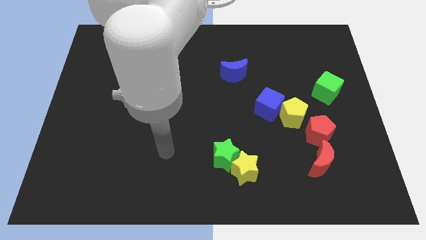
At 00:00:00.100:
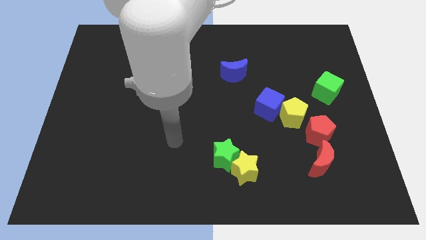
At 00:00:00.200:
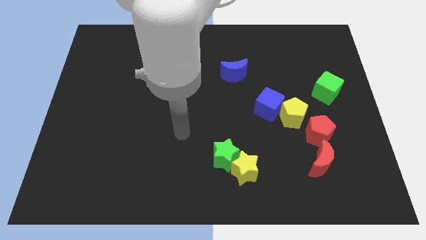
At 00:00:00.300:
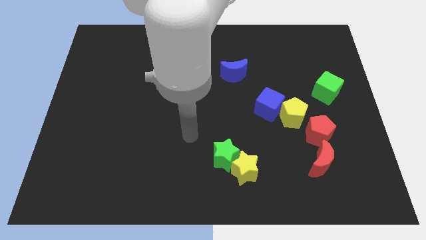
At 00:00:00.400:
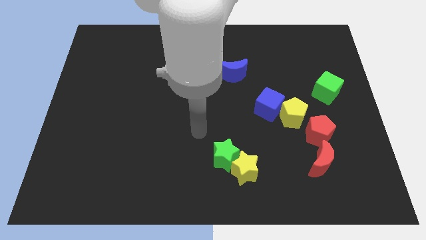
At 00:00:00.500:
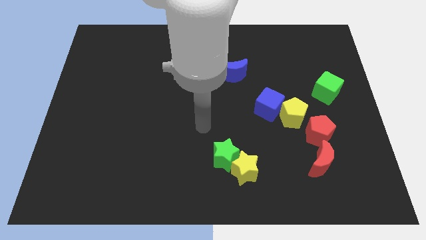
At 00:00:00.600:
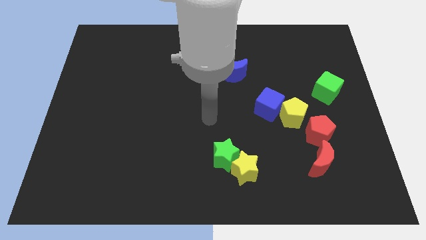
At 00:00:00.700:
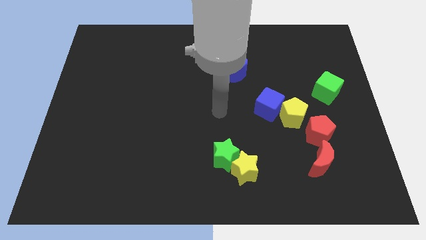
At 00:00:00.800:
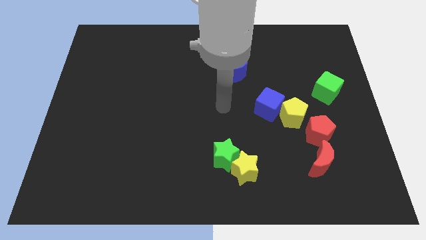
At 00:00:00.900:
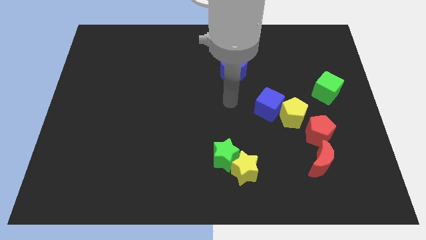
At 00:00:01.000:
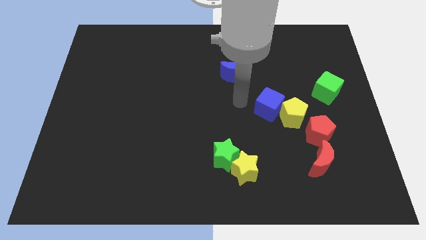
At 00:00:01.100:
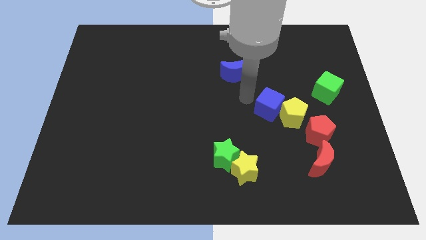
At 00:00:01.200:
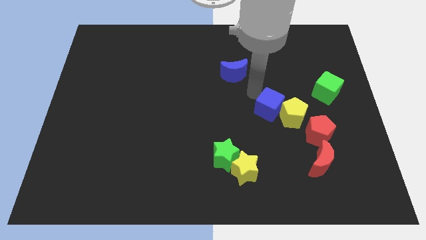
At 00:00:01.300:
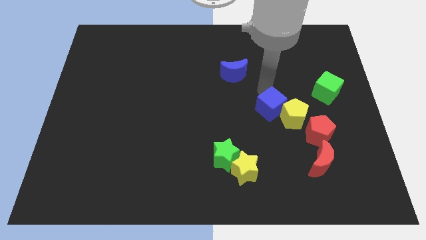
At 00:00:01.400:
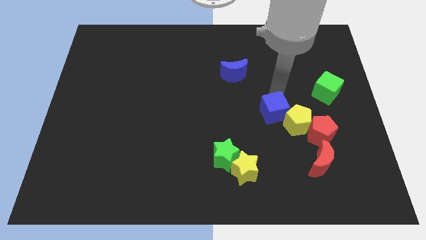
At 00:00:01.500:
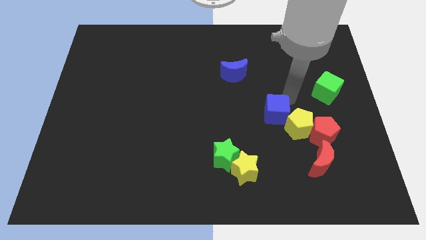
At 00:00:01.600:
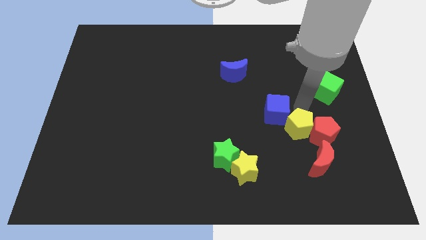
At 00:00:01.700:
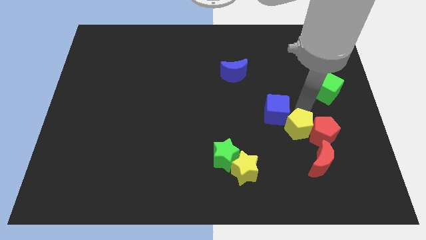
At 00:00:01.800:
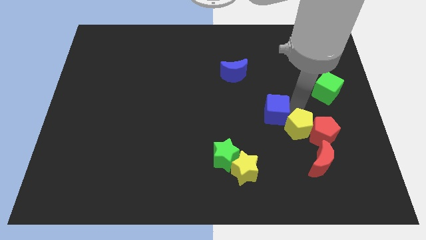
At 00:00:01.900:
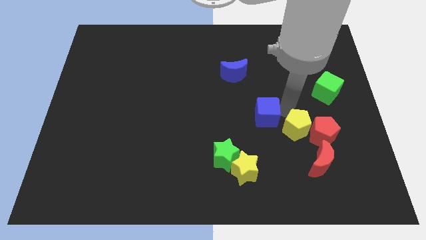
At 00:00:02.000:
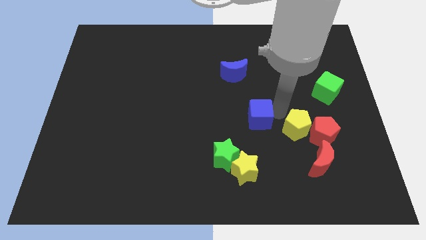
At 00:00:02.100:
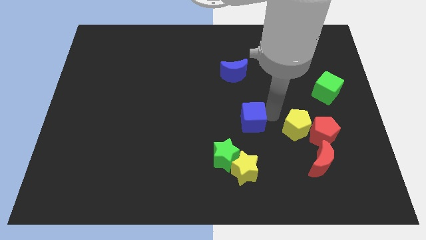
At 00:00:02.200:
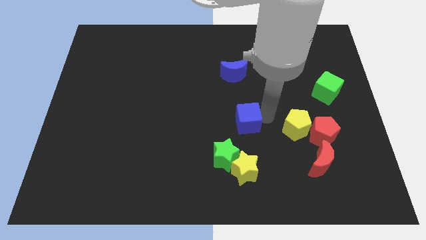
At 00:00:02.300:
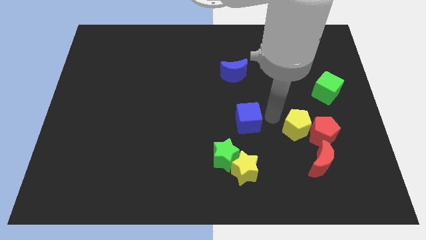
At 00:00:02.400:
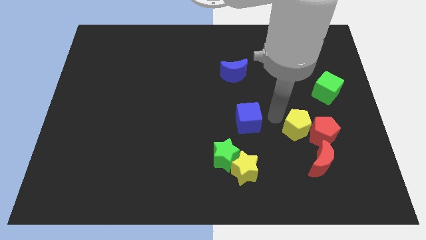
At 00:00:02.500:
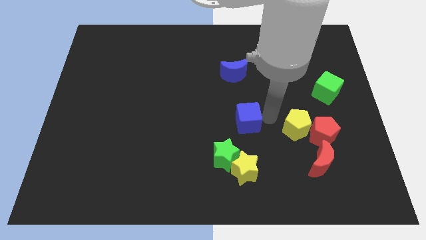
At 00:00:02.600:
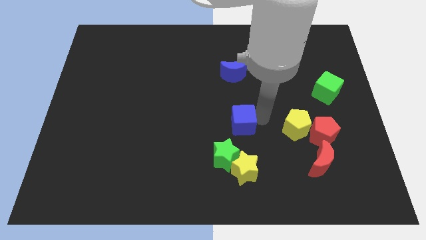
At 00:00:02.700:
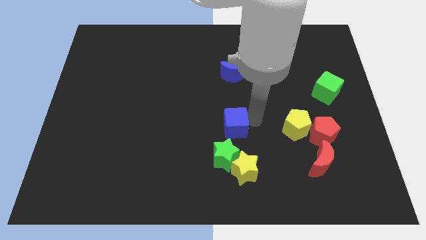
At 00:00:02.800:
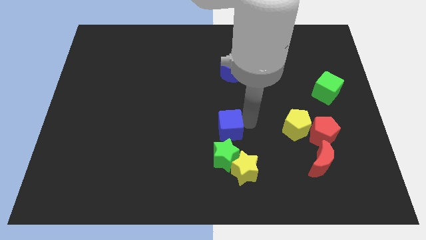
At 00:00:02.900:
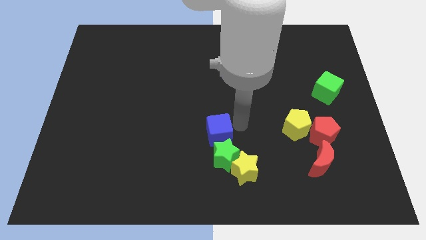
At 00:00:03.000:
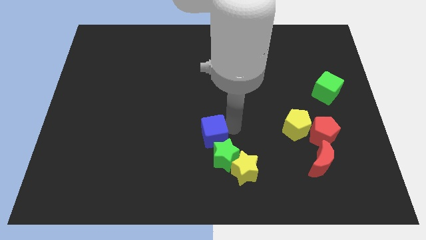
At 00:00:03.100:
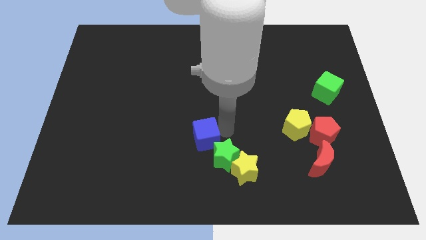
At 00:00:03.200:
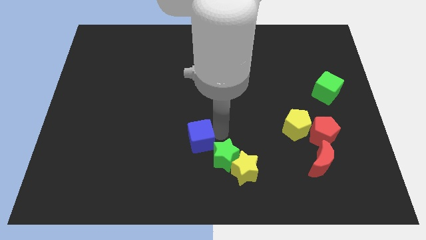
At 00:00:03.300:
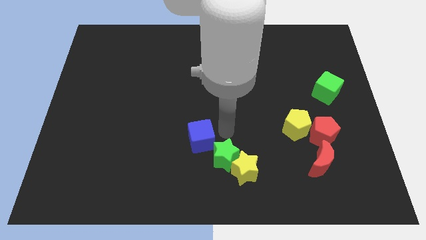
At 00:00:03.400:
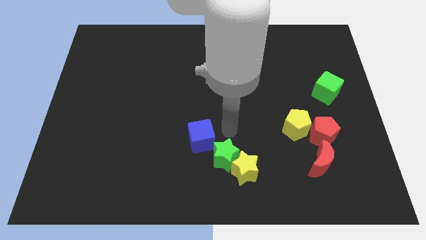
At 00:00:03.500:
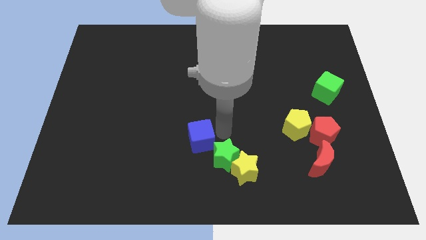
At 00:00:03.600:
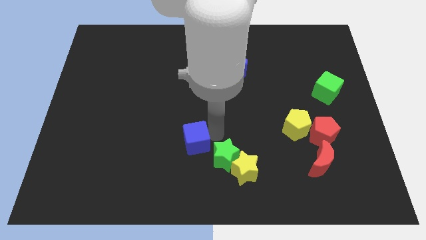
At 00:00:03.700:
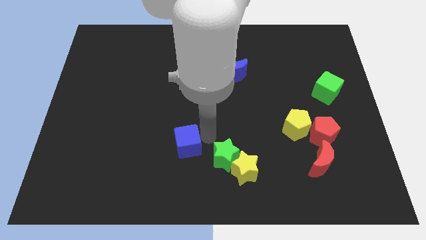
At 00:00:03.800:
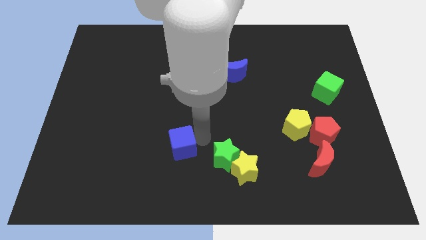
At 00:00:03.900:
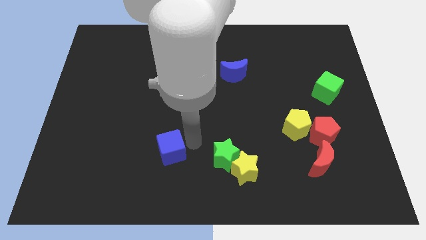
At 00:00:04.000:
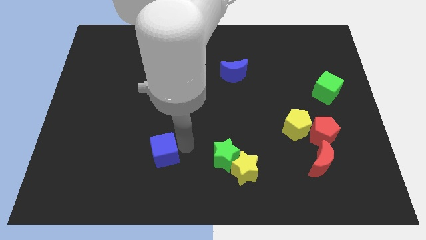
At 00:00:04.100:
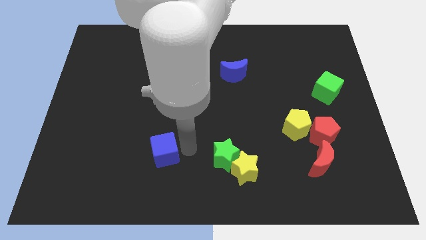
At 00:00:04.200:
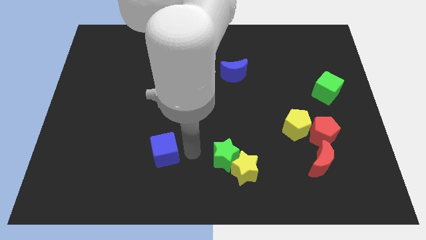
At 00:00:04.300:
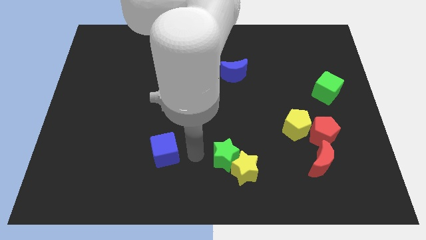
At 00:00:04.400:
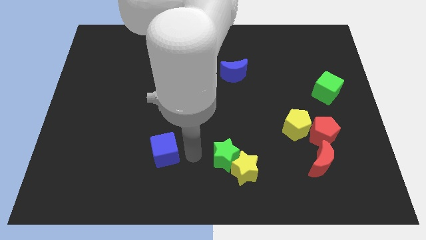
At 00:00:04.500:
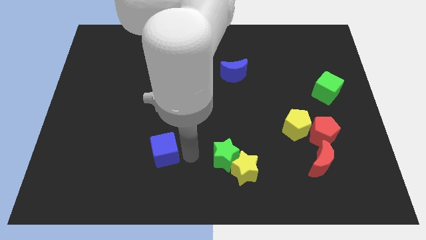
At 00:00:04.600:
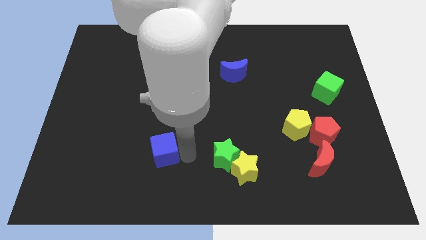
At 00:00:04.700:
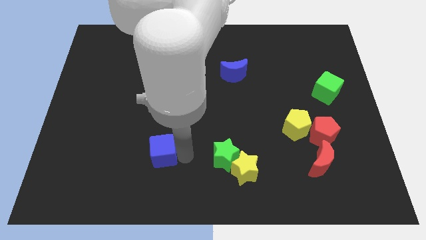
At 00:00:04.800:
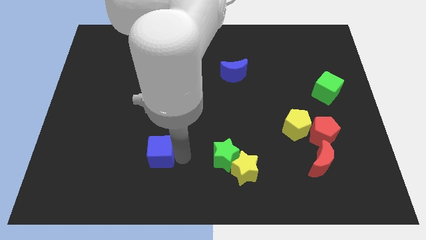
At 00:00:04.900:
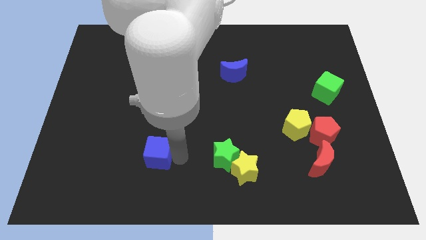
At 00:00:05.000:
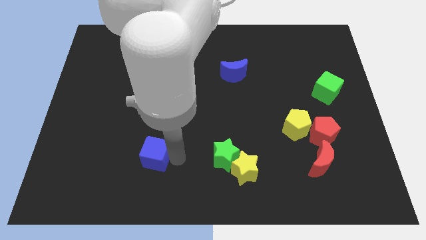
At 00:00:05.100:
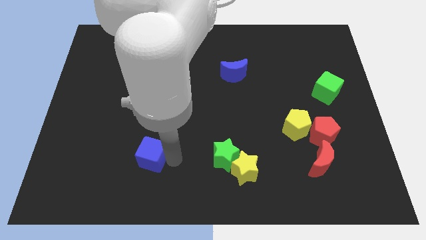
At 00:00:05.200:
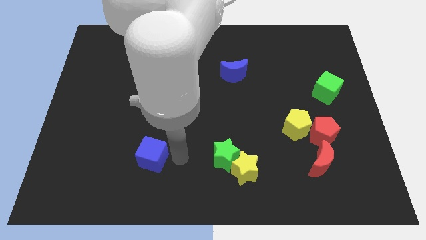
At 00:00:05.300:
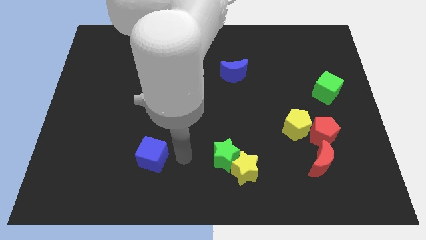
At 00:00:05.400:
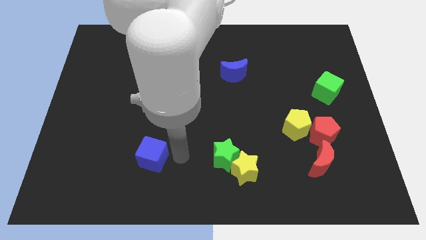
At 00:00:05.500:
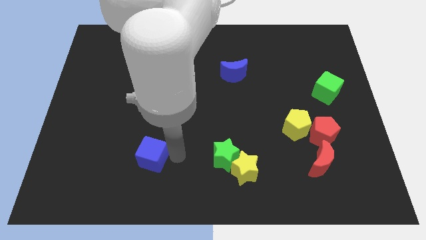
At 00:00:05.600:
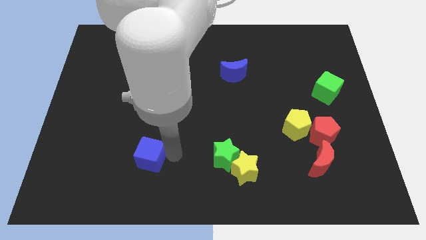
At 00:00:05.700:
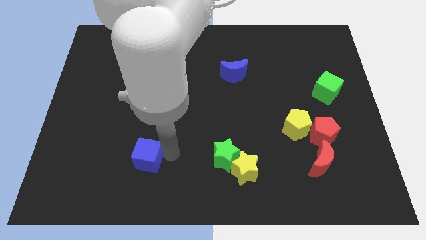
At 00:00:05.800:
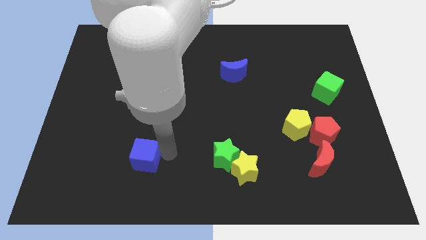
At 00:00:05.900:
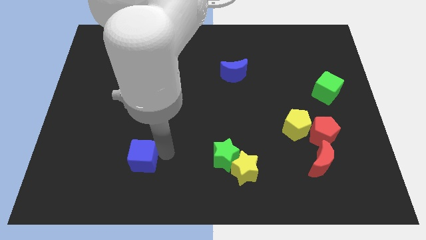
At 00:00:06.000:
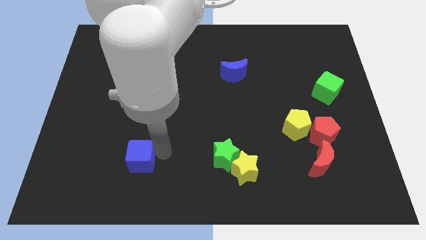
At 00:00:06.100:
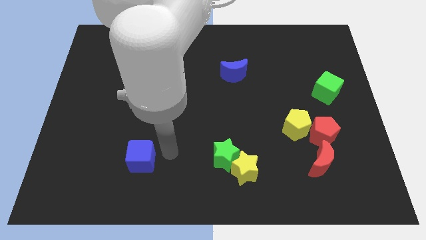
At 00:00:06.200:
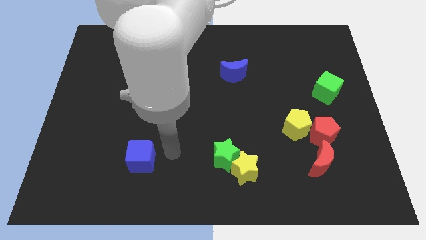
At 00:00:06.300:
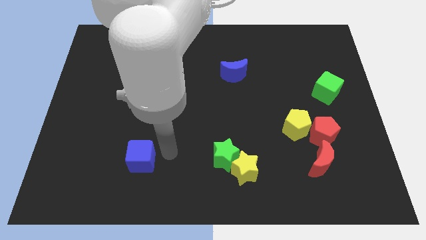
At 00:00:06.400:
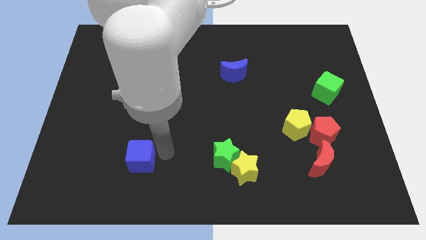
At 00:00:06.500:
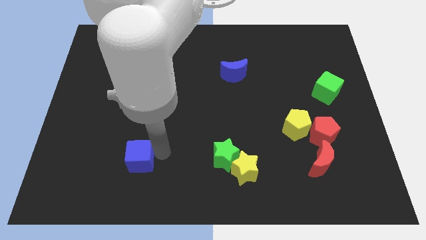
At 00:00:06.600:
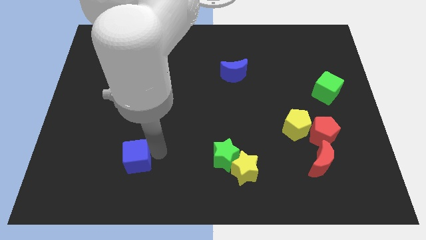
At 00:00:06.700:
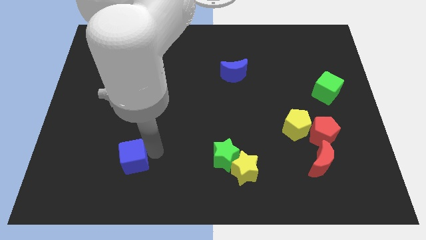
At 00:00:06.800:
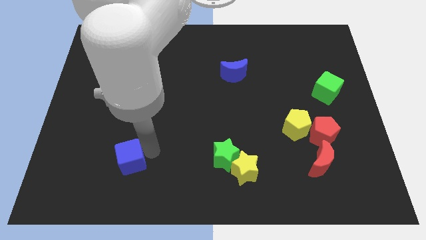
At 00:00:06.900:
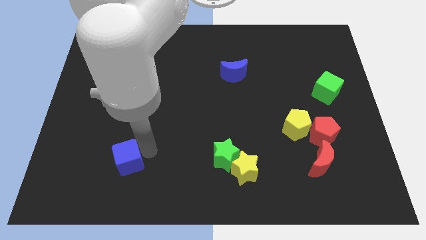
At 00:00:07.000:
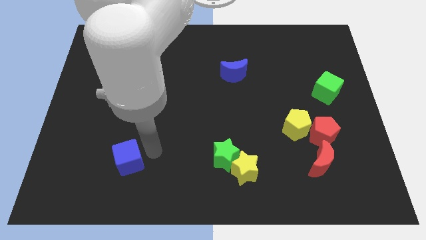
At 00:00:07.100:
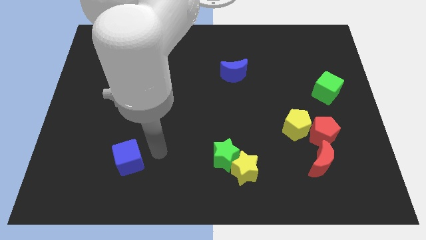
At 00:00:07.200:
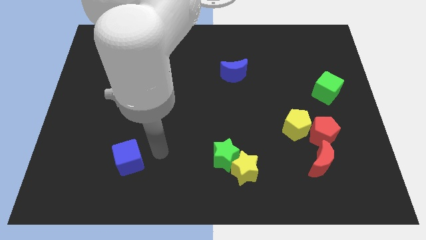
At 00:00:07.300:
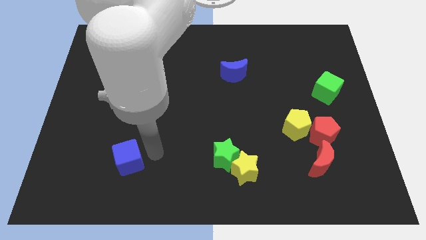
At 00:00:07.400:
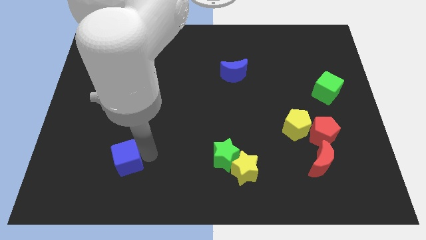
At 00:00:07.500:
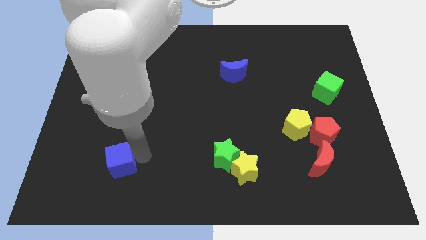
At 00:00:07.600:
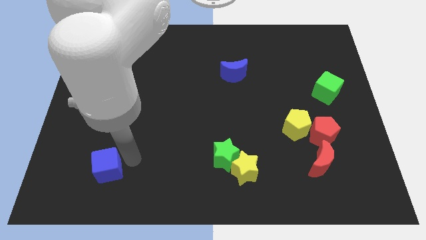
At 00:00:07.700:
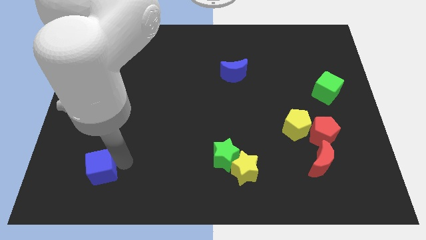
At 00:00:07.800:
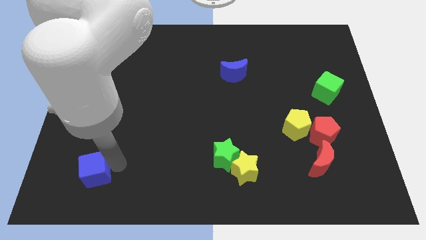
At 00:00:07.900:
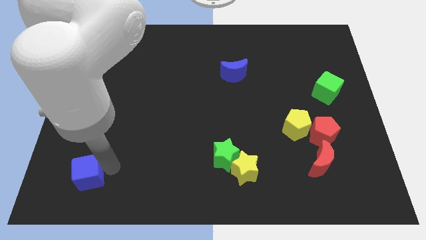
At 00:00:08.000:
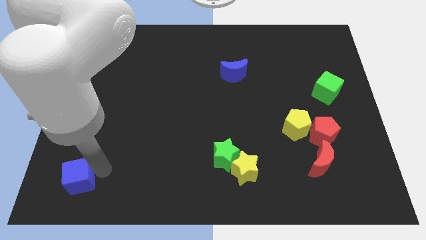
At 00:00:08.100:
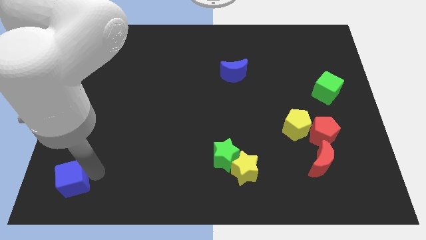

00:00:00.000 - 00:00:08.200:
push the blue cube to the bottom left corner
